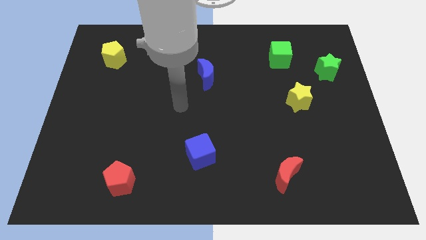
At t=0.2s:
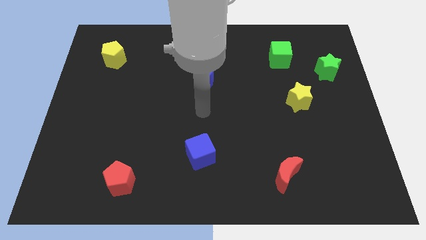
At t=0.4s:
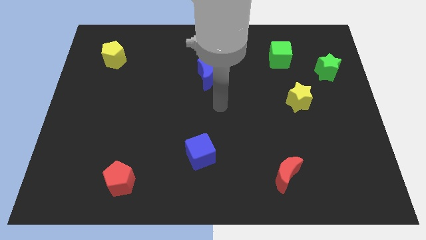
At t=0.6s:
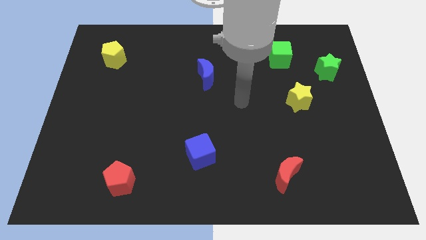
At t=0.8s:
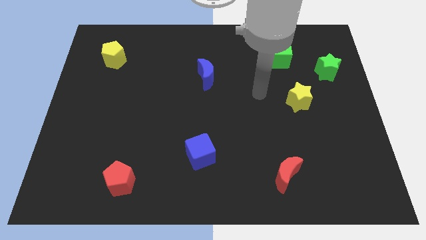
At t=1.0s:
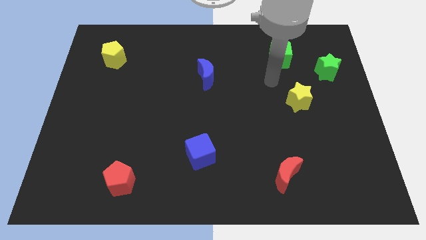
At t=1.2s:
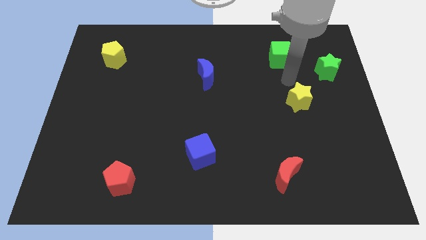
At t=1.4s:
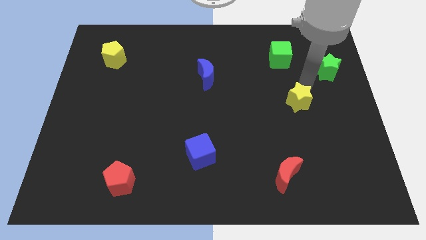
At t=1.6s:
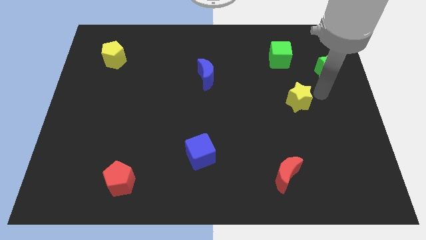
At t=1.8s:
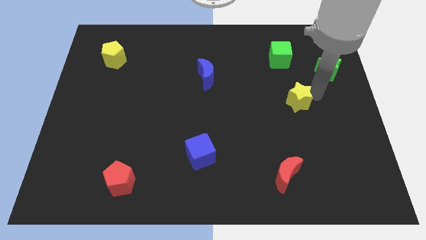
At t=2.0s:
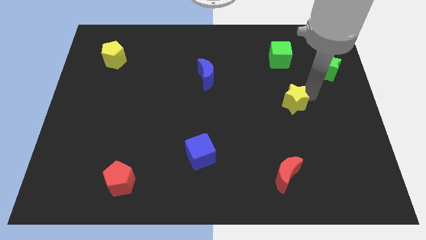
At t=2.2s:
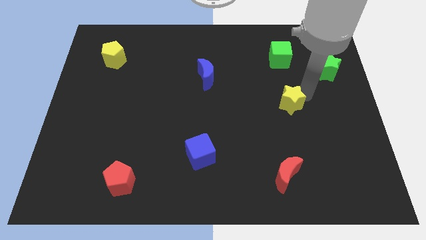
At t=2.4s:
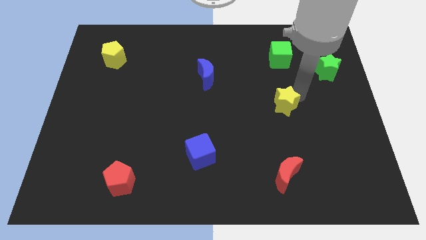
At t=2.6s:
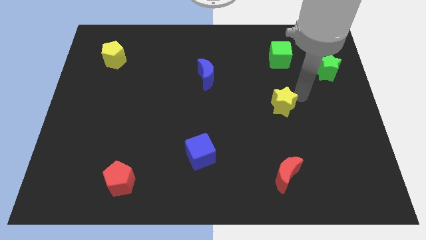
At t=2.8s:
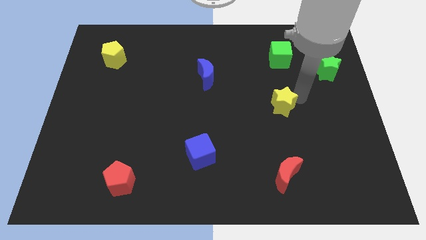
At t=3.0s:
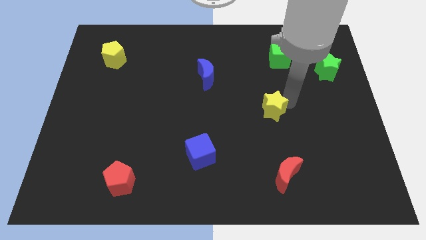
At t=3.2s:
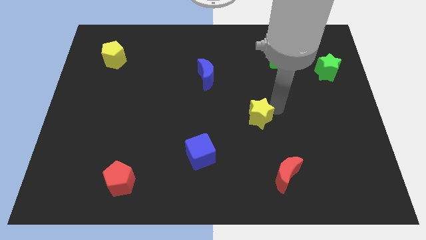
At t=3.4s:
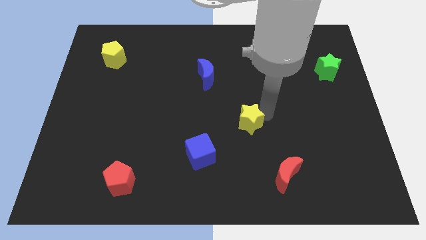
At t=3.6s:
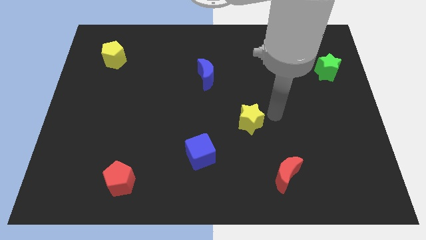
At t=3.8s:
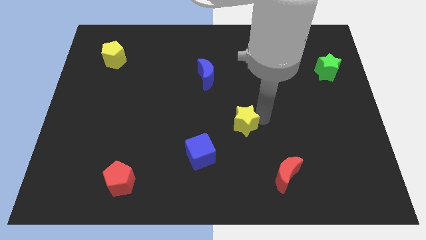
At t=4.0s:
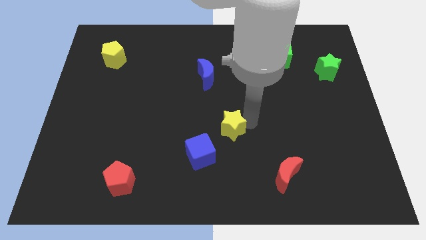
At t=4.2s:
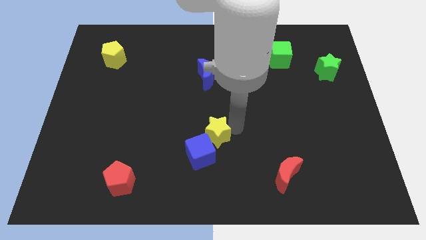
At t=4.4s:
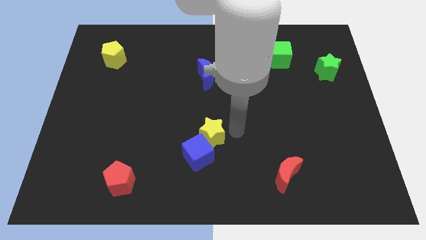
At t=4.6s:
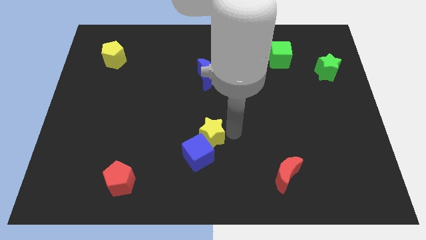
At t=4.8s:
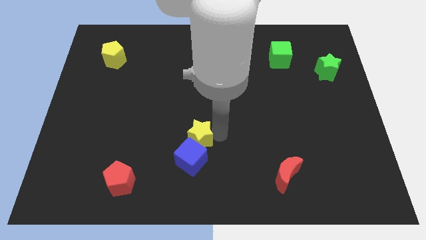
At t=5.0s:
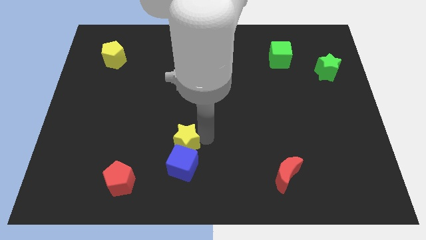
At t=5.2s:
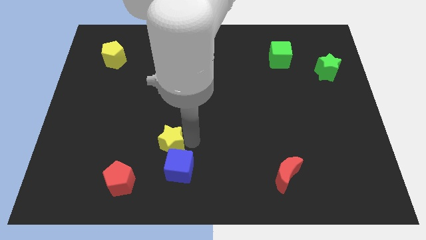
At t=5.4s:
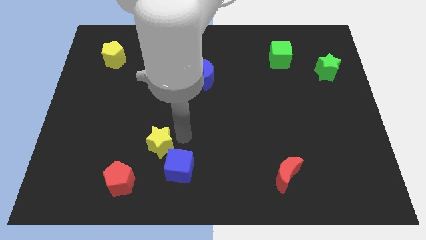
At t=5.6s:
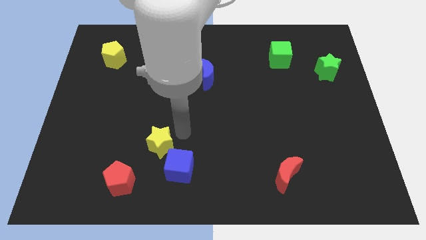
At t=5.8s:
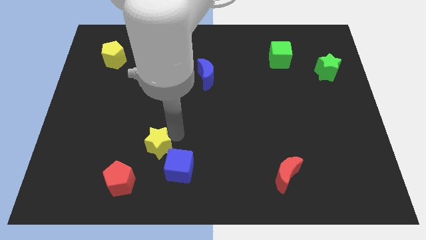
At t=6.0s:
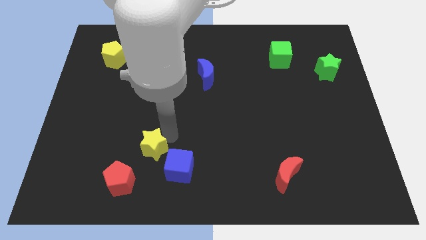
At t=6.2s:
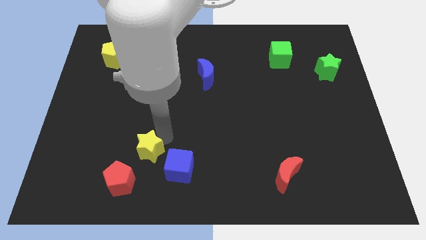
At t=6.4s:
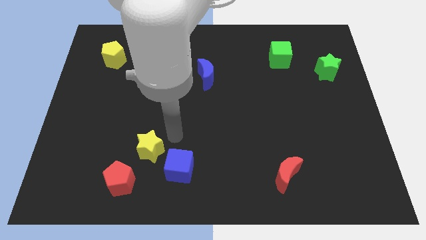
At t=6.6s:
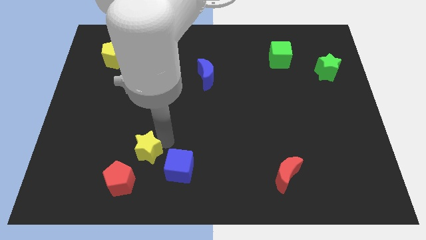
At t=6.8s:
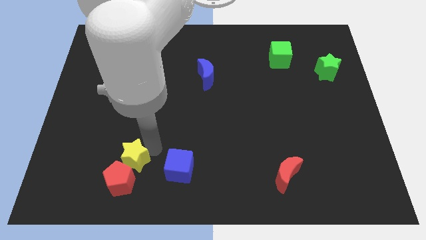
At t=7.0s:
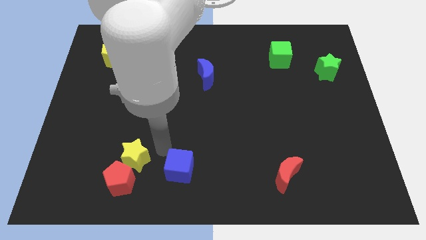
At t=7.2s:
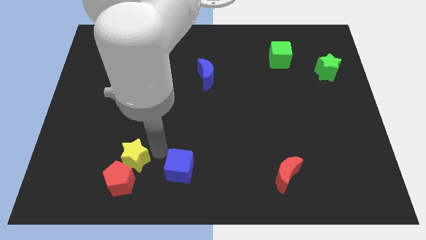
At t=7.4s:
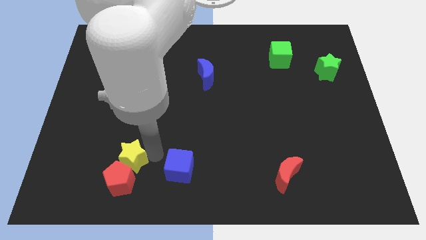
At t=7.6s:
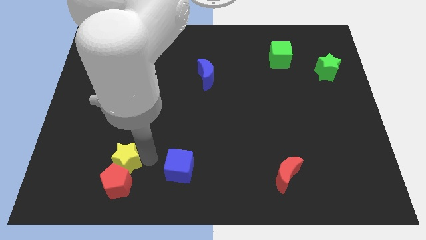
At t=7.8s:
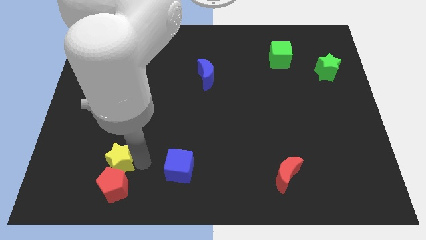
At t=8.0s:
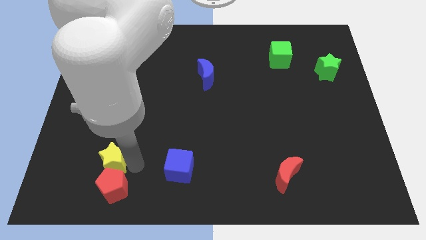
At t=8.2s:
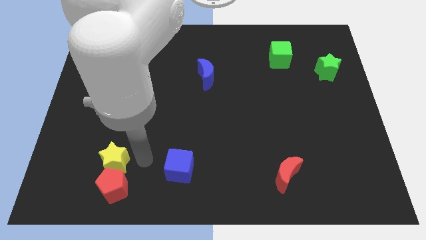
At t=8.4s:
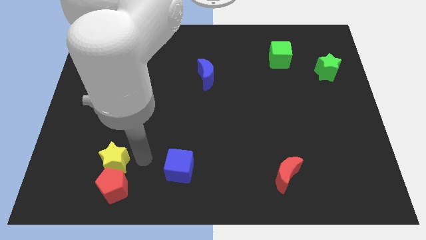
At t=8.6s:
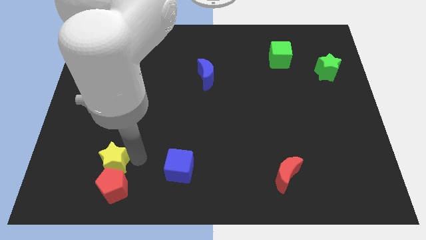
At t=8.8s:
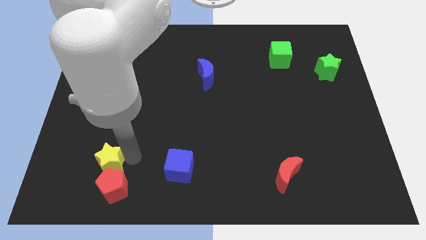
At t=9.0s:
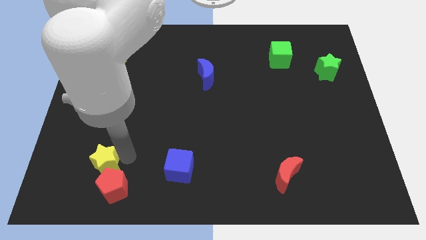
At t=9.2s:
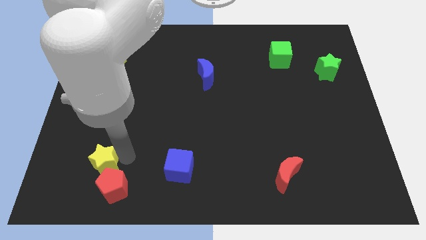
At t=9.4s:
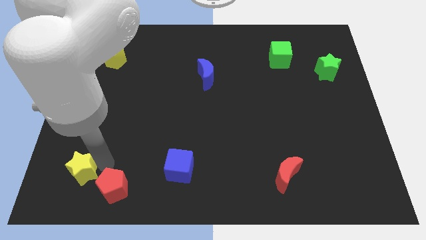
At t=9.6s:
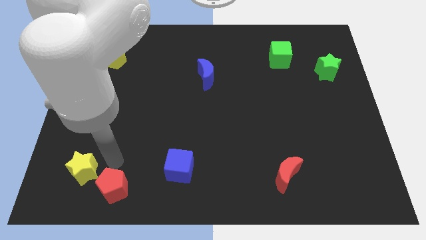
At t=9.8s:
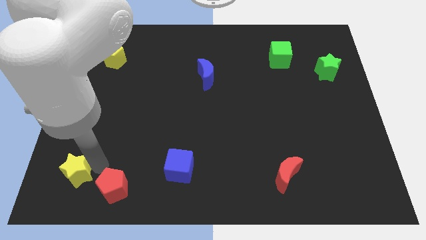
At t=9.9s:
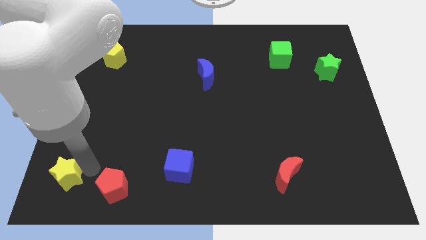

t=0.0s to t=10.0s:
move the yellow star to the bottom left corner

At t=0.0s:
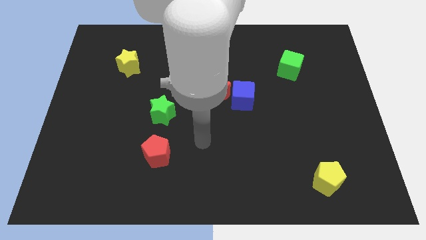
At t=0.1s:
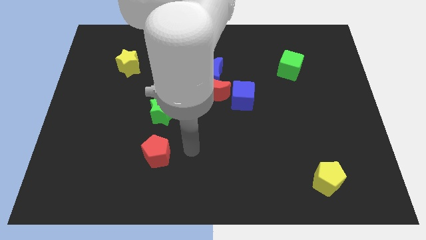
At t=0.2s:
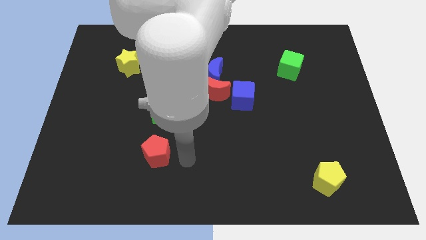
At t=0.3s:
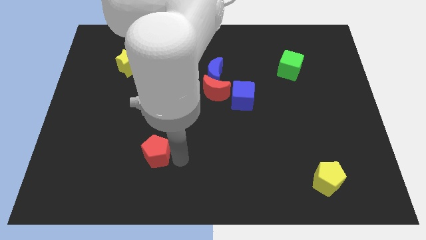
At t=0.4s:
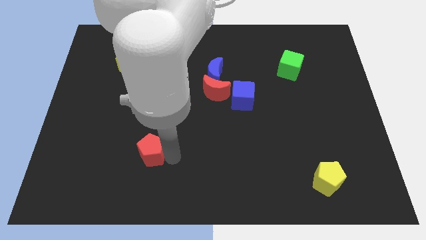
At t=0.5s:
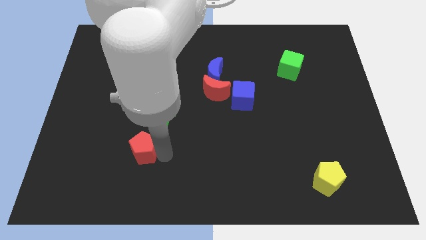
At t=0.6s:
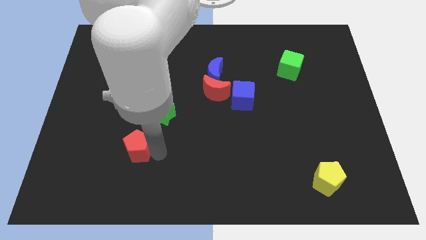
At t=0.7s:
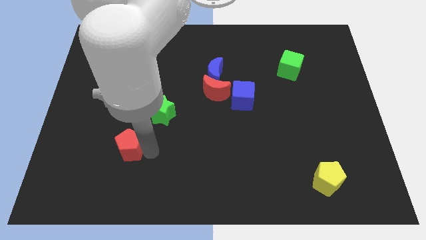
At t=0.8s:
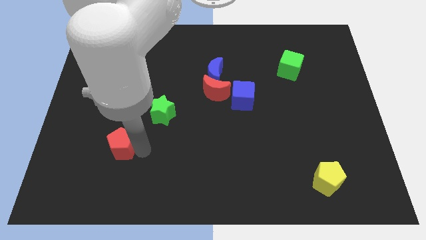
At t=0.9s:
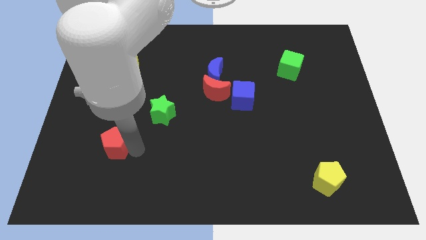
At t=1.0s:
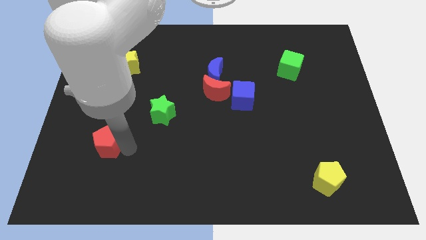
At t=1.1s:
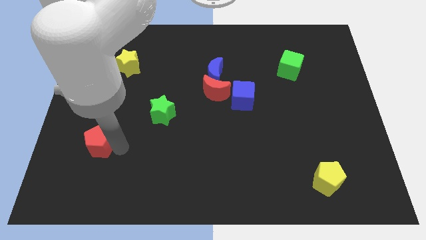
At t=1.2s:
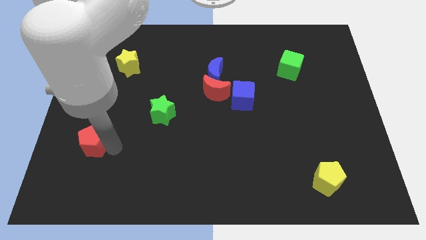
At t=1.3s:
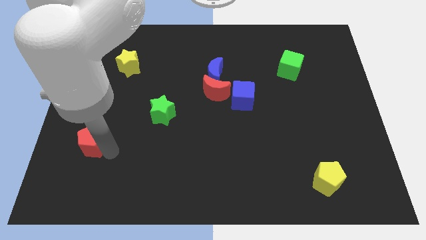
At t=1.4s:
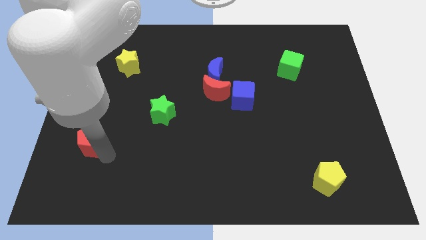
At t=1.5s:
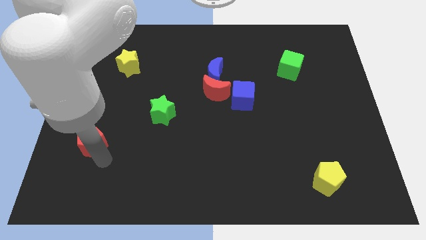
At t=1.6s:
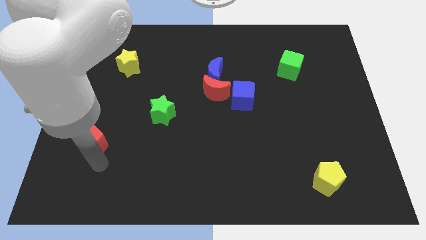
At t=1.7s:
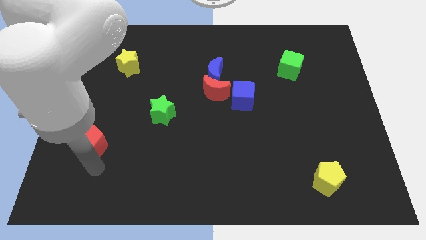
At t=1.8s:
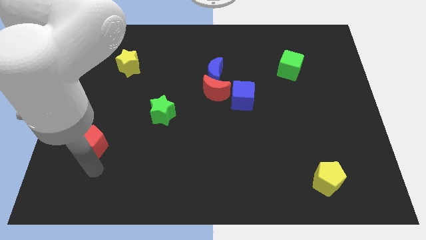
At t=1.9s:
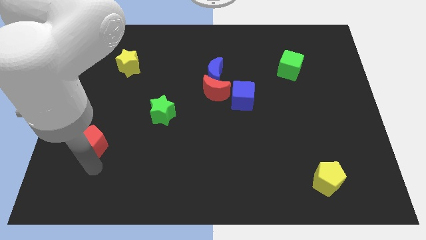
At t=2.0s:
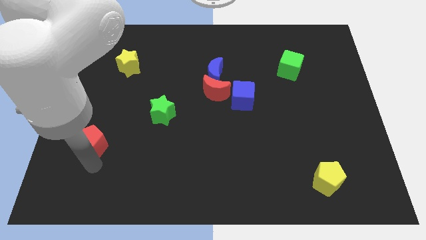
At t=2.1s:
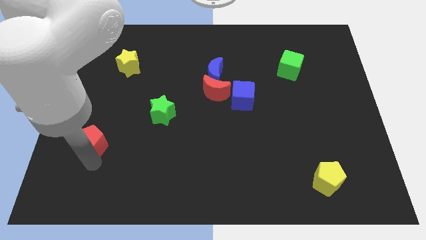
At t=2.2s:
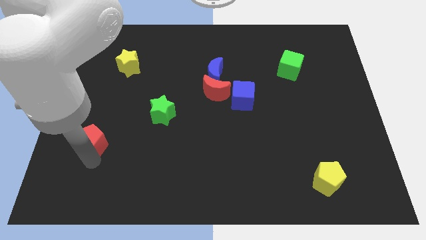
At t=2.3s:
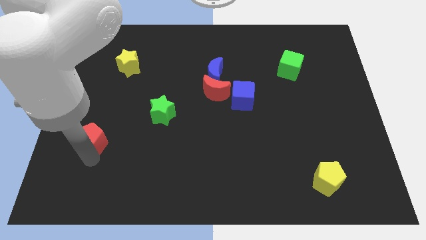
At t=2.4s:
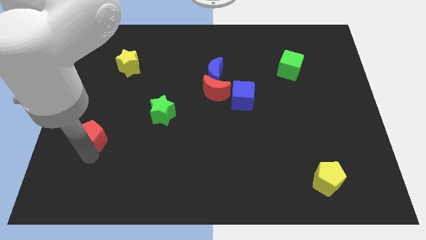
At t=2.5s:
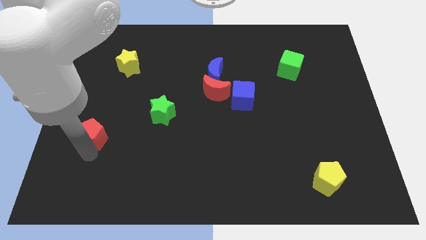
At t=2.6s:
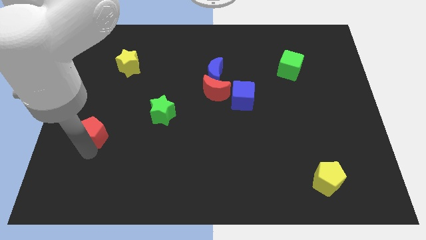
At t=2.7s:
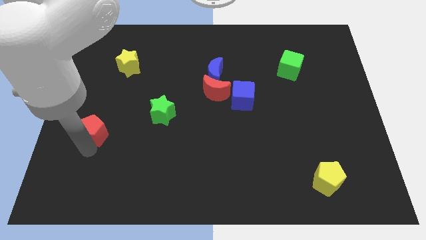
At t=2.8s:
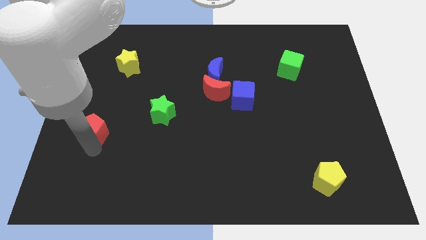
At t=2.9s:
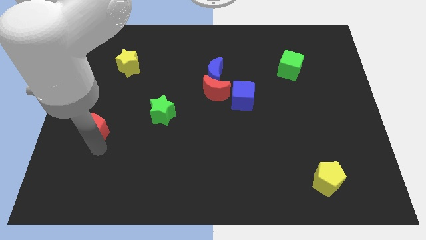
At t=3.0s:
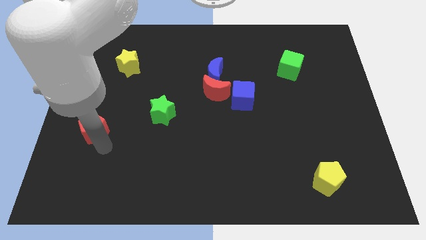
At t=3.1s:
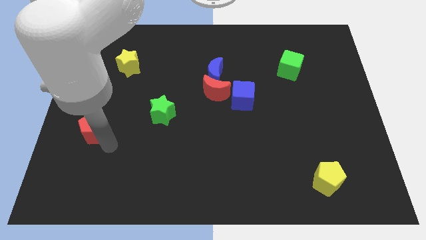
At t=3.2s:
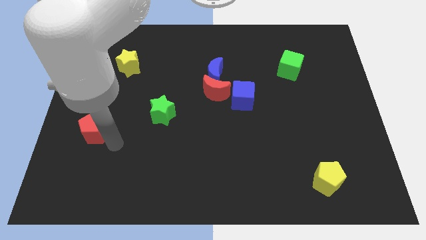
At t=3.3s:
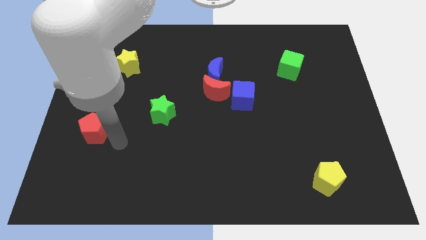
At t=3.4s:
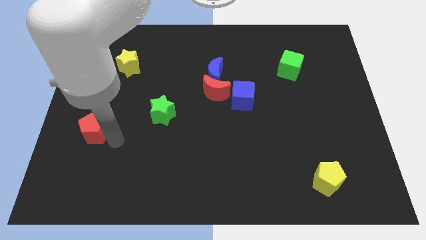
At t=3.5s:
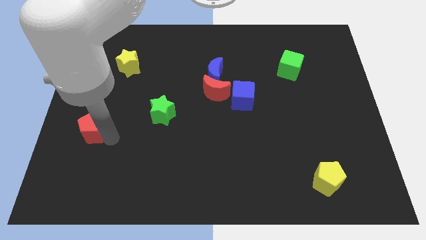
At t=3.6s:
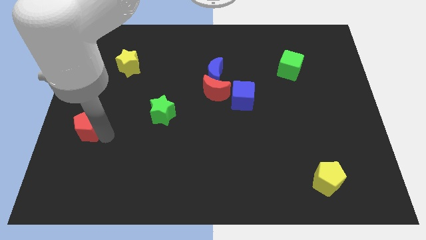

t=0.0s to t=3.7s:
slide the red pentagon to the left side
